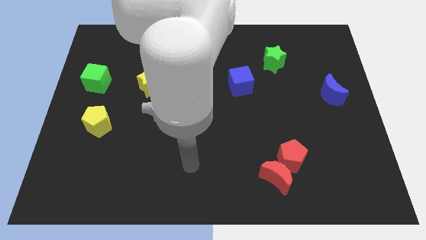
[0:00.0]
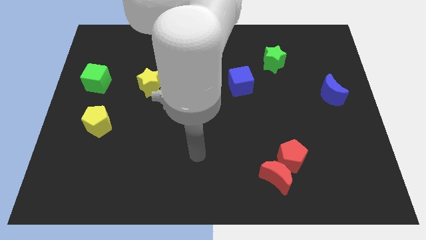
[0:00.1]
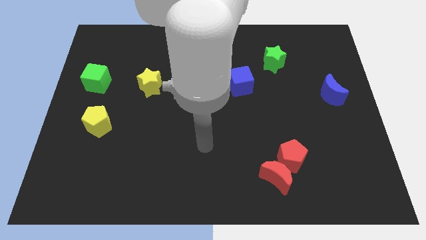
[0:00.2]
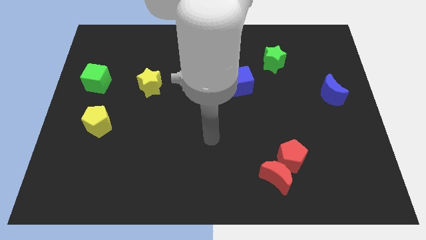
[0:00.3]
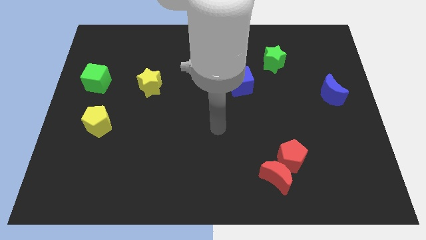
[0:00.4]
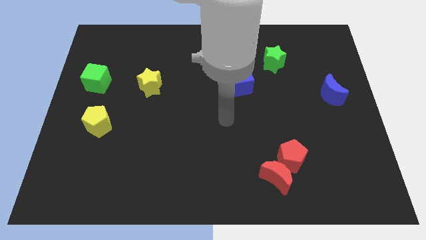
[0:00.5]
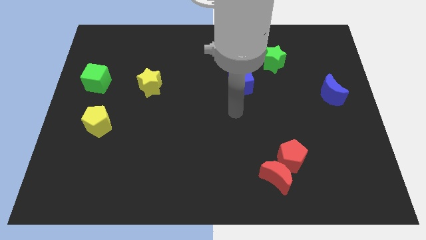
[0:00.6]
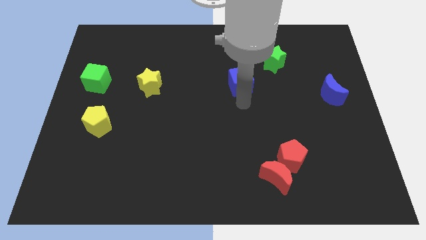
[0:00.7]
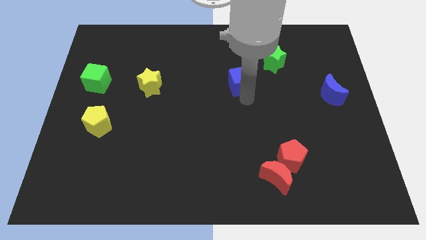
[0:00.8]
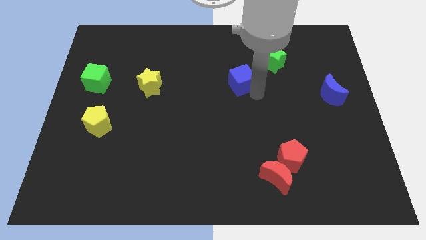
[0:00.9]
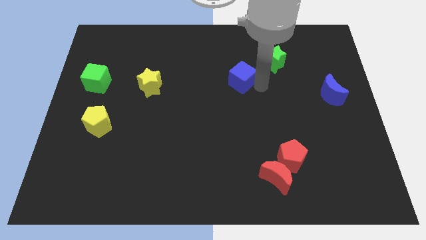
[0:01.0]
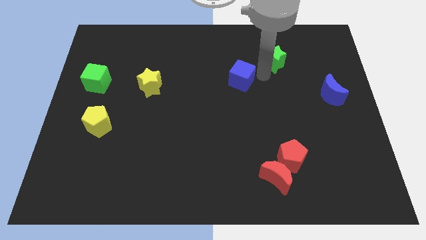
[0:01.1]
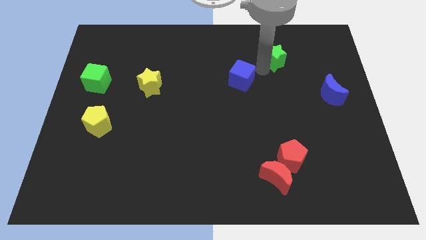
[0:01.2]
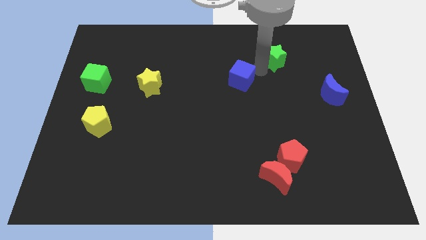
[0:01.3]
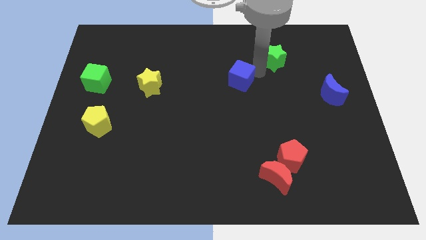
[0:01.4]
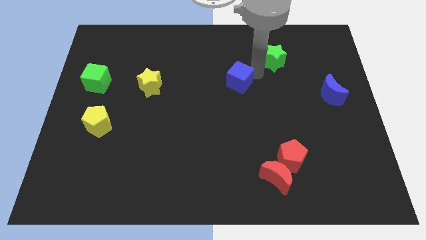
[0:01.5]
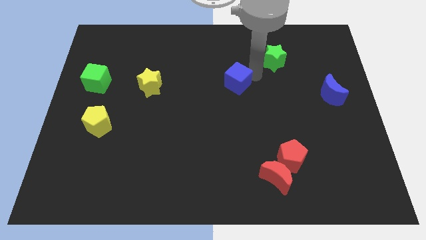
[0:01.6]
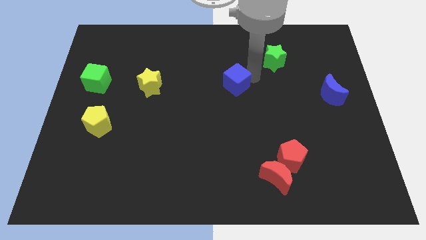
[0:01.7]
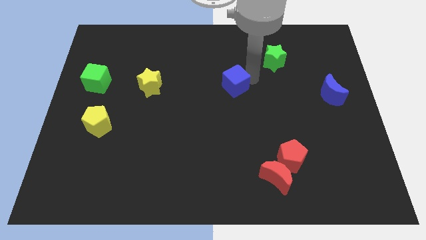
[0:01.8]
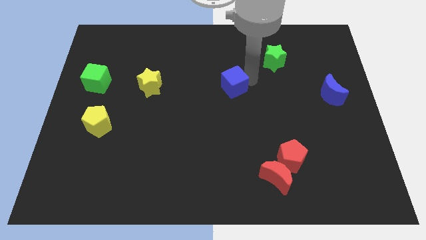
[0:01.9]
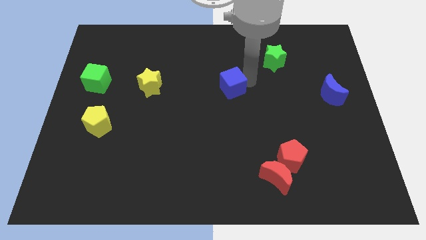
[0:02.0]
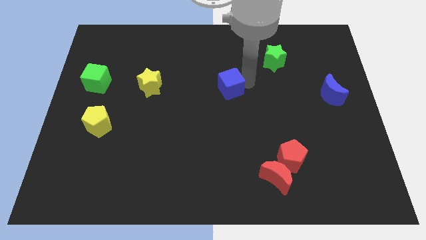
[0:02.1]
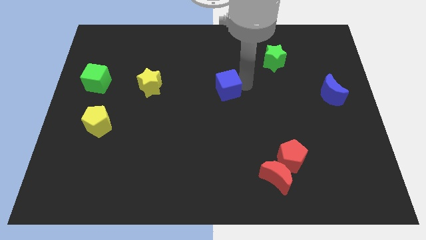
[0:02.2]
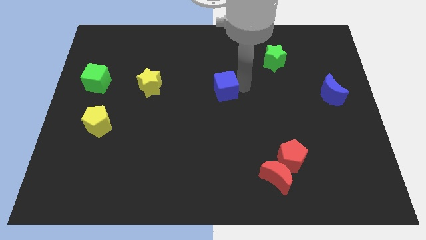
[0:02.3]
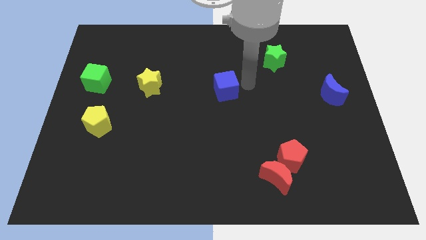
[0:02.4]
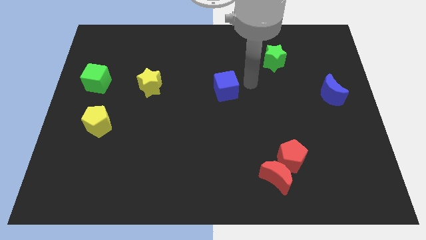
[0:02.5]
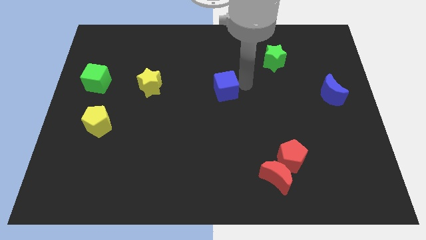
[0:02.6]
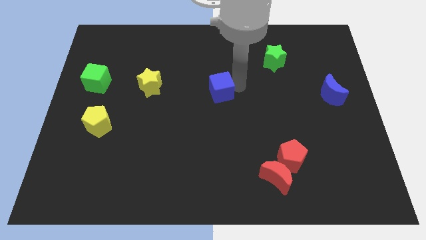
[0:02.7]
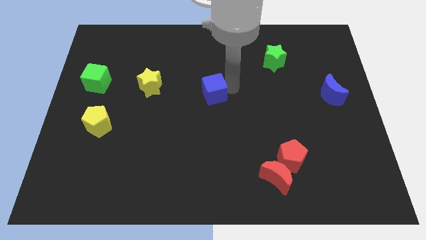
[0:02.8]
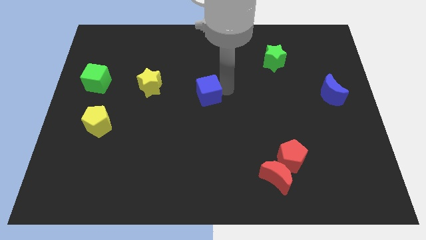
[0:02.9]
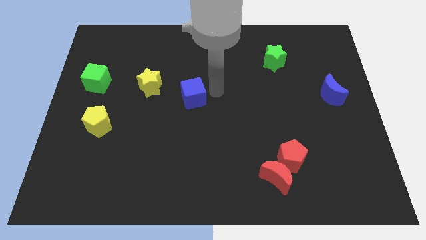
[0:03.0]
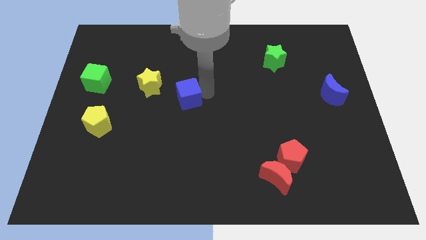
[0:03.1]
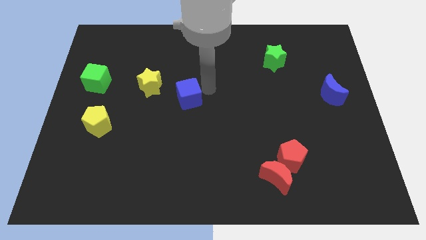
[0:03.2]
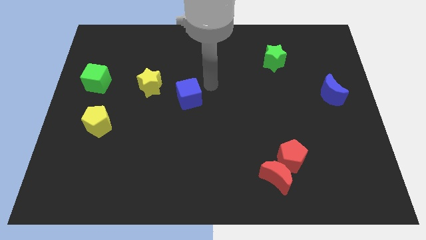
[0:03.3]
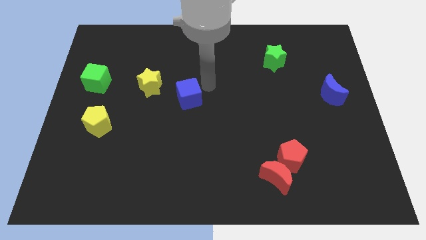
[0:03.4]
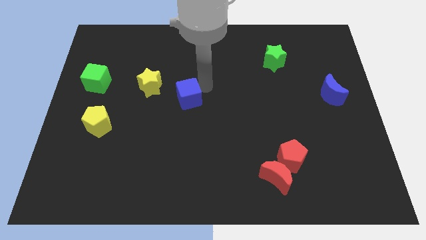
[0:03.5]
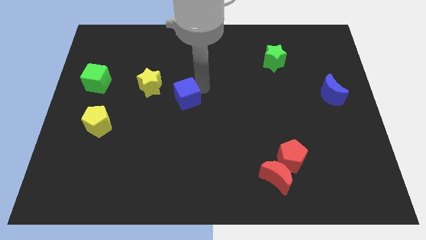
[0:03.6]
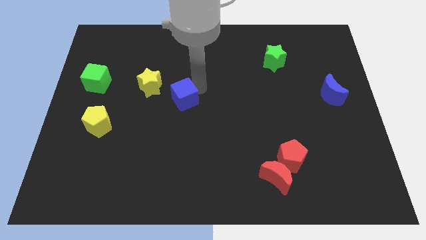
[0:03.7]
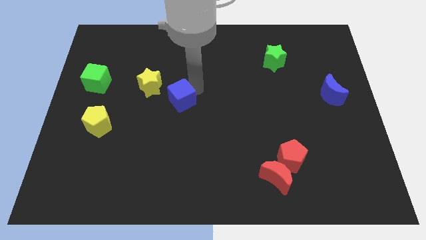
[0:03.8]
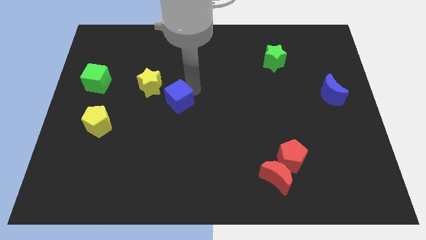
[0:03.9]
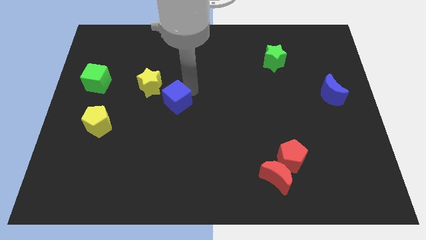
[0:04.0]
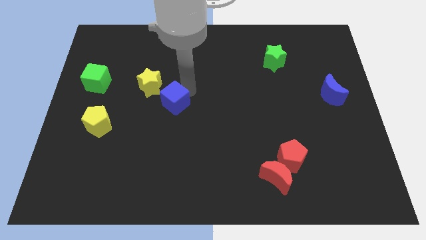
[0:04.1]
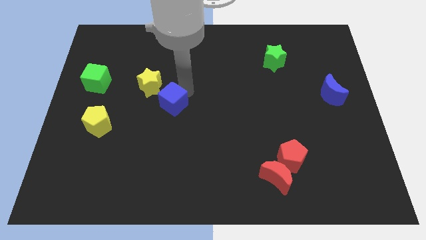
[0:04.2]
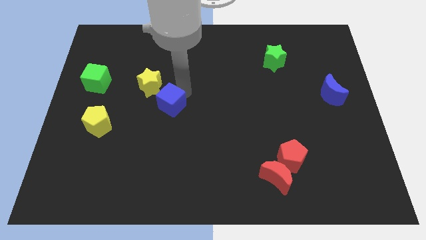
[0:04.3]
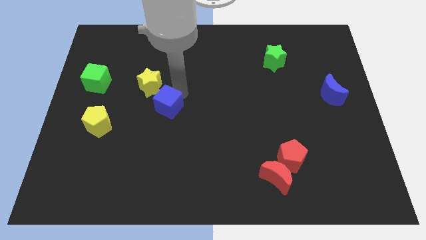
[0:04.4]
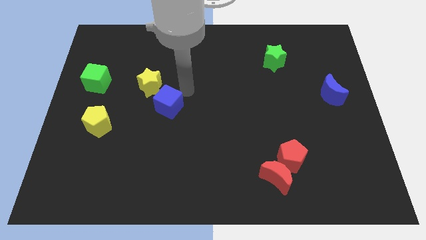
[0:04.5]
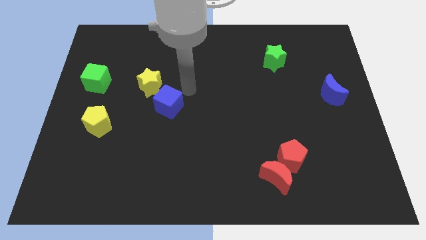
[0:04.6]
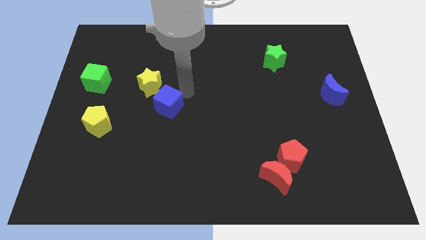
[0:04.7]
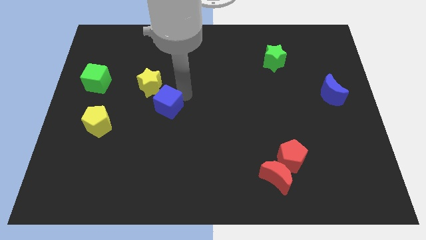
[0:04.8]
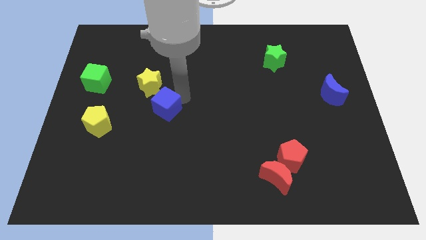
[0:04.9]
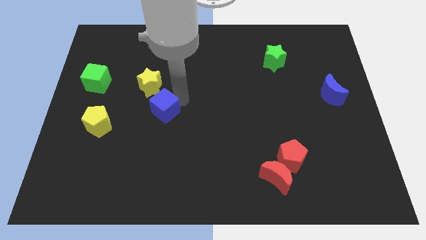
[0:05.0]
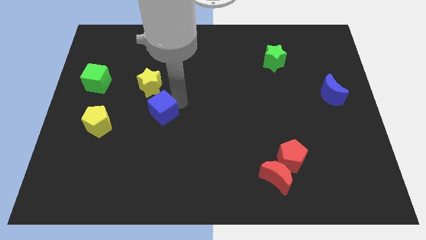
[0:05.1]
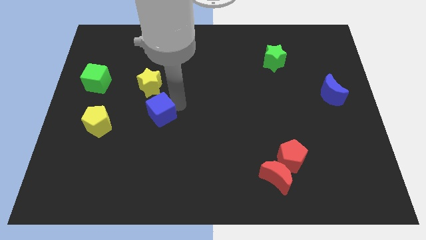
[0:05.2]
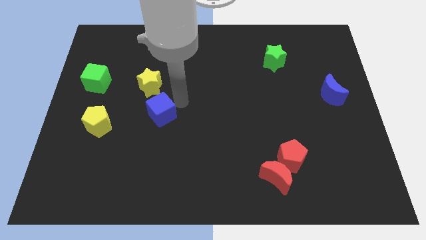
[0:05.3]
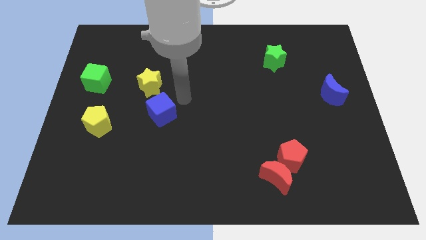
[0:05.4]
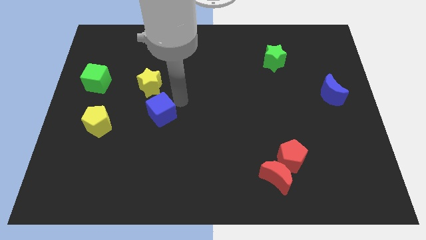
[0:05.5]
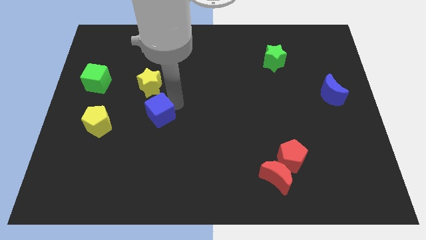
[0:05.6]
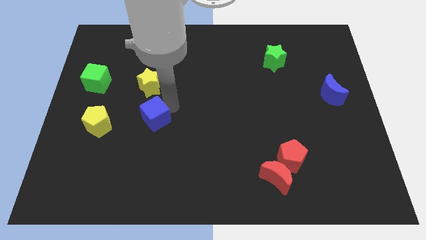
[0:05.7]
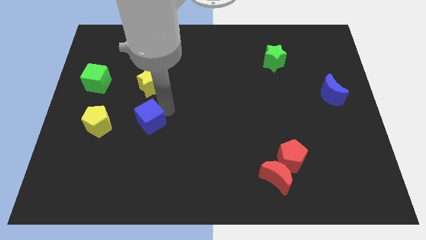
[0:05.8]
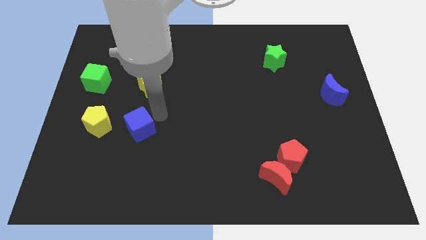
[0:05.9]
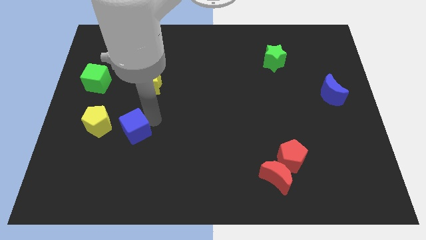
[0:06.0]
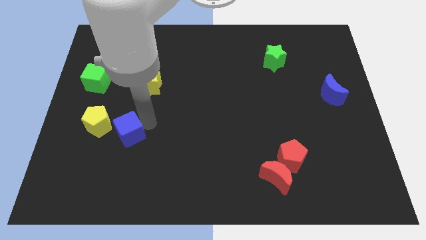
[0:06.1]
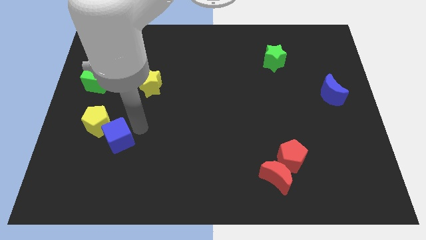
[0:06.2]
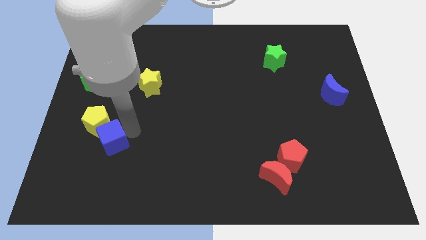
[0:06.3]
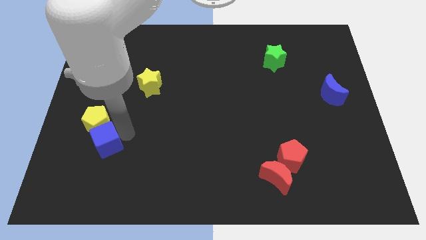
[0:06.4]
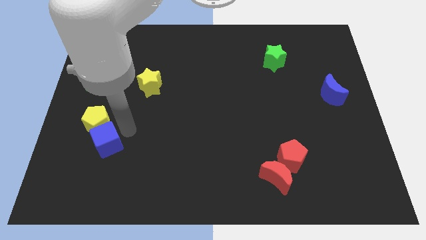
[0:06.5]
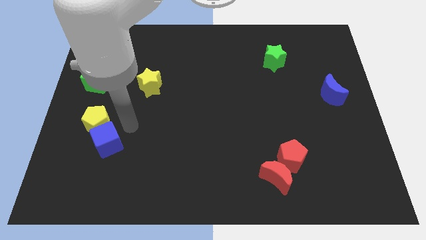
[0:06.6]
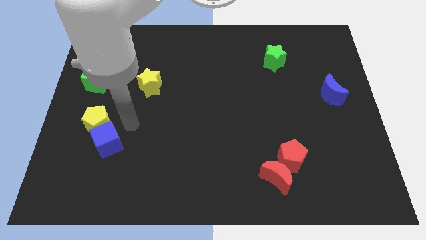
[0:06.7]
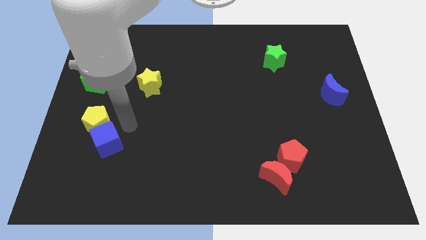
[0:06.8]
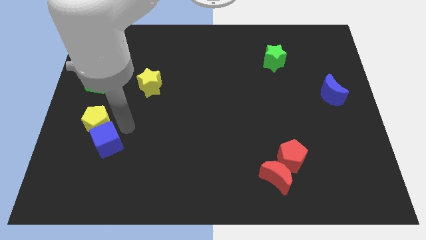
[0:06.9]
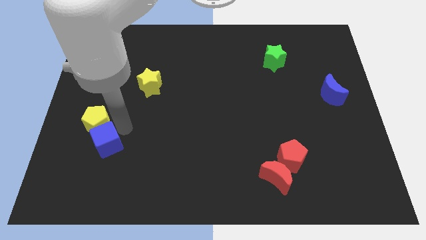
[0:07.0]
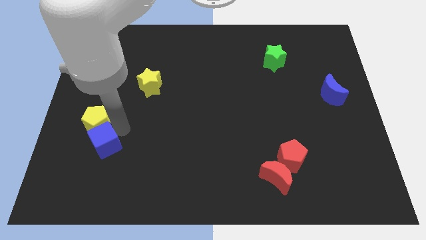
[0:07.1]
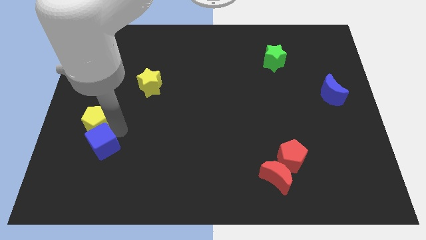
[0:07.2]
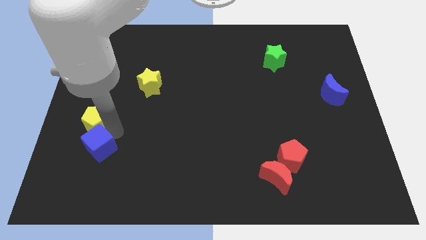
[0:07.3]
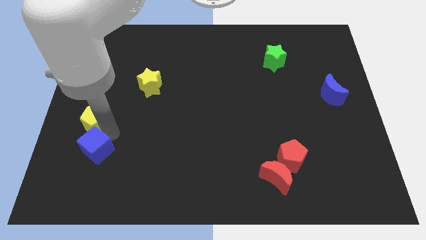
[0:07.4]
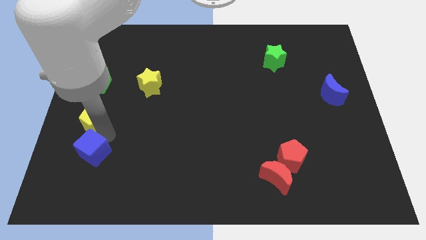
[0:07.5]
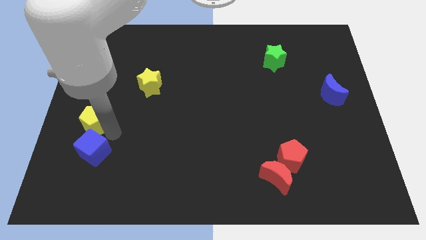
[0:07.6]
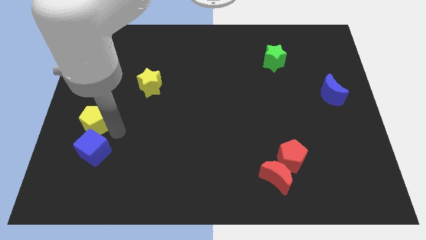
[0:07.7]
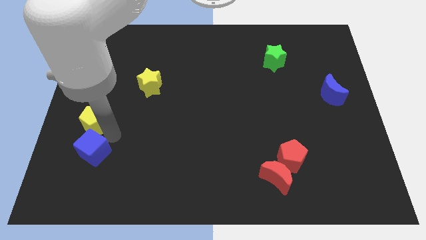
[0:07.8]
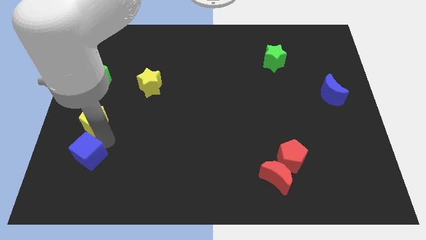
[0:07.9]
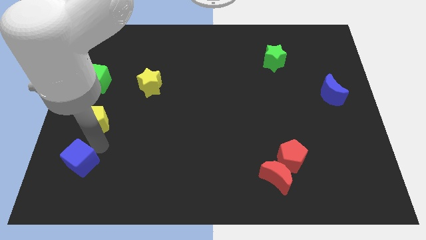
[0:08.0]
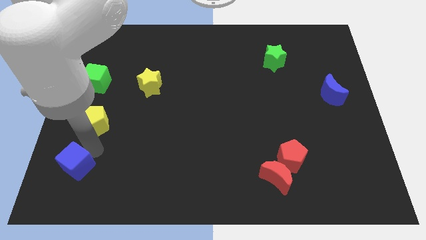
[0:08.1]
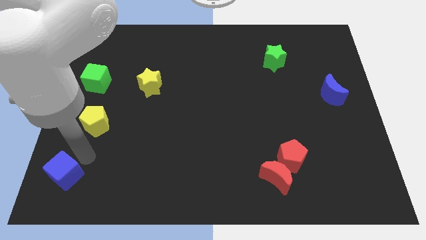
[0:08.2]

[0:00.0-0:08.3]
push the blue cube to the bottom left corner
